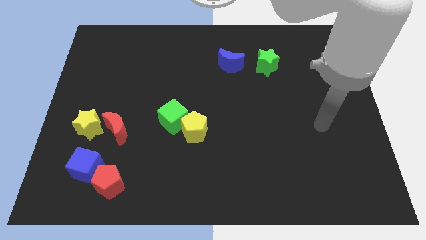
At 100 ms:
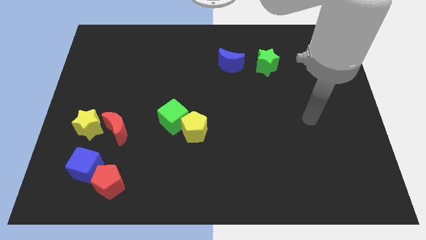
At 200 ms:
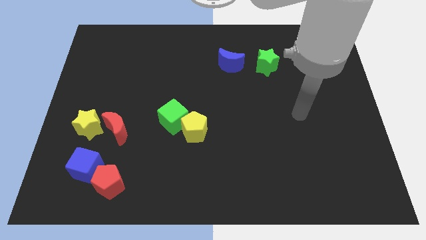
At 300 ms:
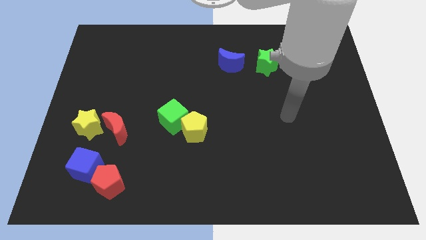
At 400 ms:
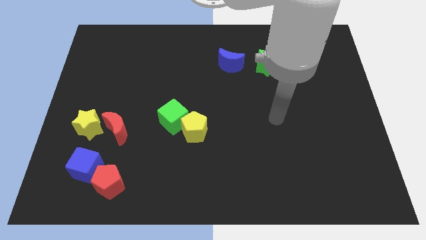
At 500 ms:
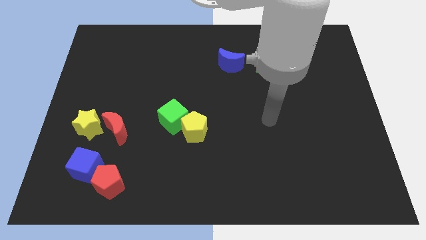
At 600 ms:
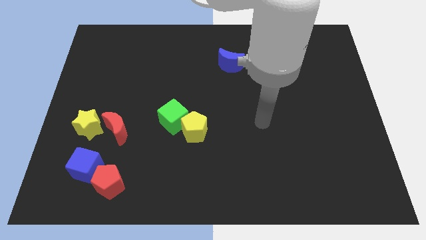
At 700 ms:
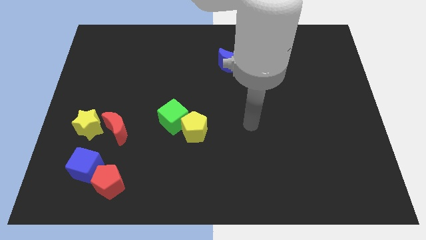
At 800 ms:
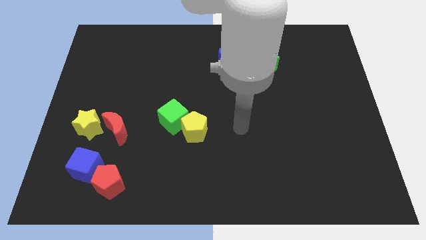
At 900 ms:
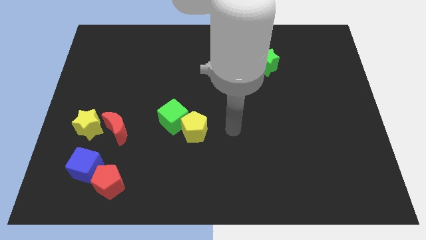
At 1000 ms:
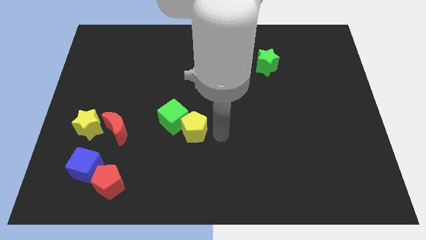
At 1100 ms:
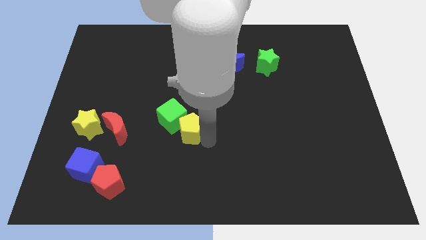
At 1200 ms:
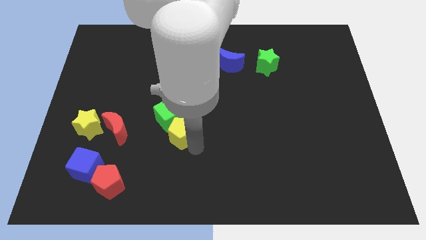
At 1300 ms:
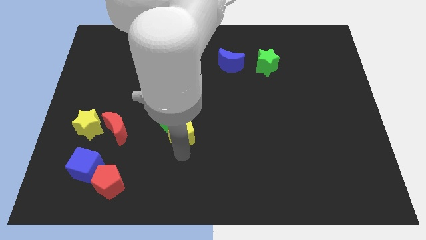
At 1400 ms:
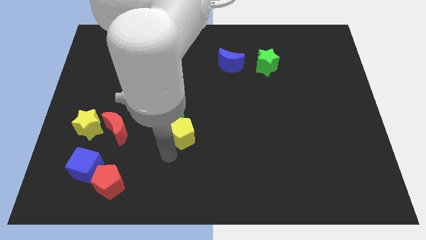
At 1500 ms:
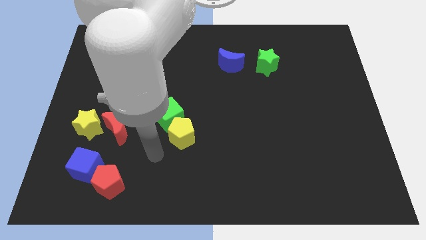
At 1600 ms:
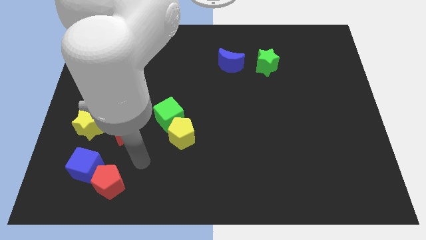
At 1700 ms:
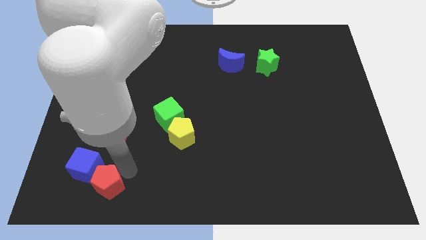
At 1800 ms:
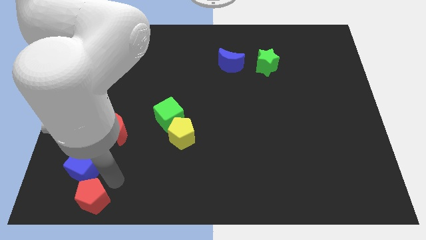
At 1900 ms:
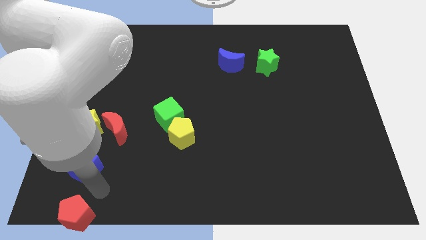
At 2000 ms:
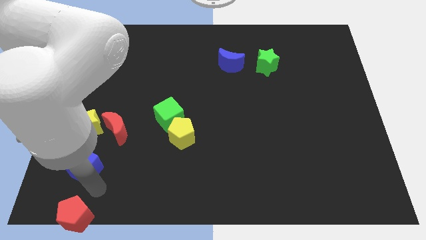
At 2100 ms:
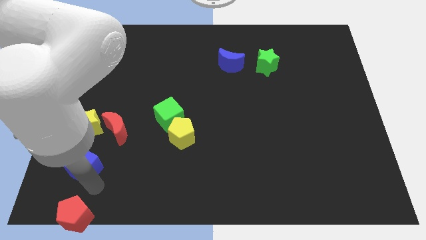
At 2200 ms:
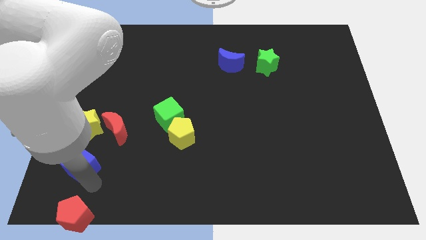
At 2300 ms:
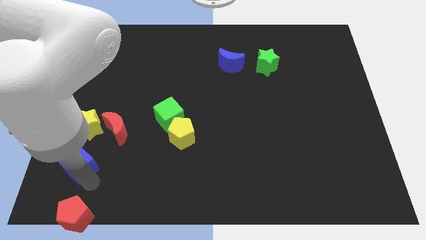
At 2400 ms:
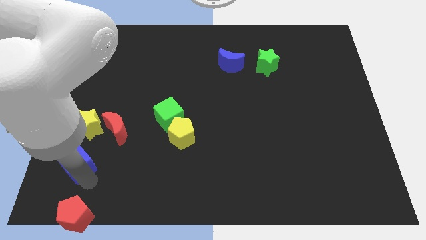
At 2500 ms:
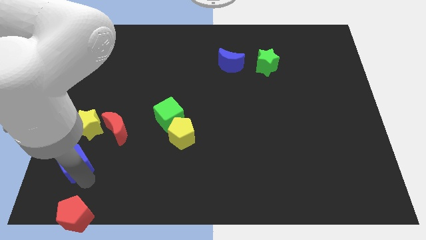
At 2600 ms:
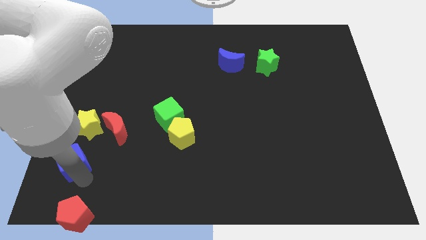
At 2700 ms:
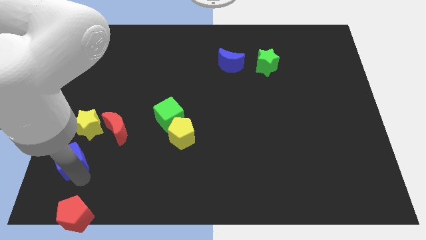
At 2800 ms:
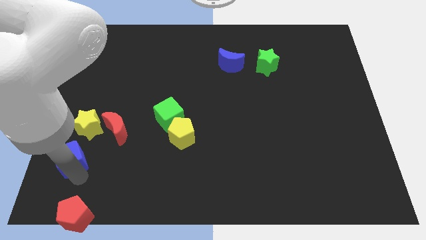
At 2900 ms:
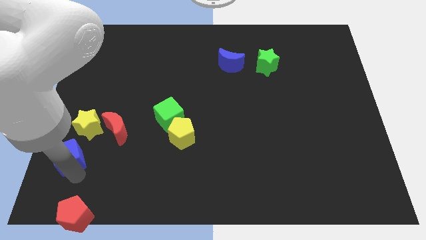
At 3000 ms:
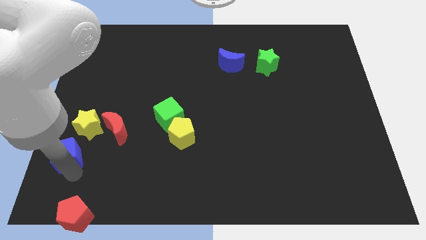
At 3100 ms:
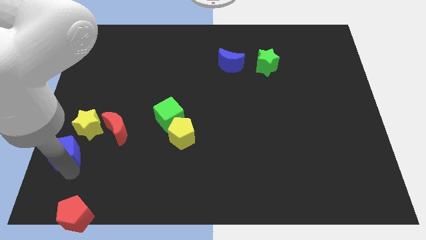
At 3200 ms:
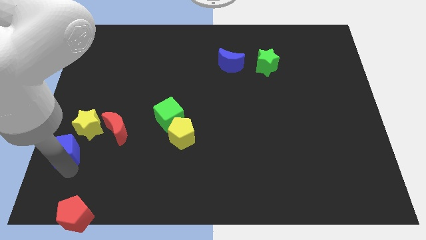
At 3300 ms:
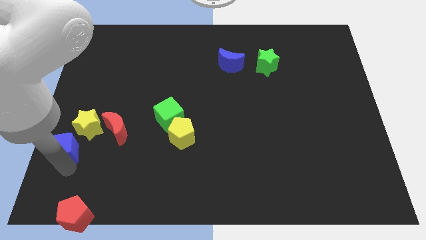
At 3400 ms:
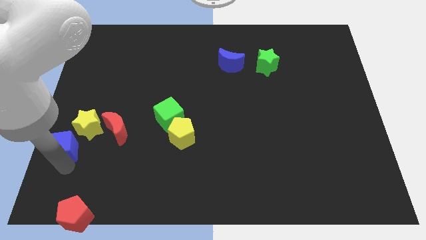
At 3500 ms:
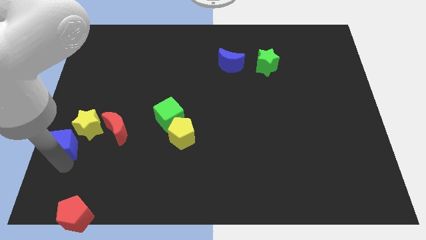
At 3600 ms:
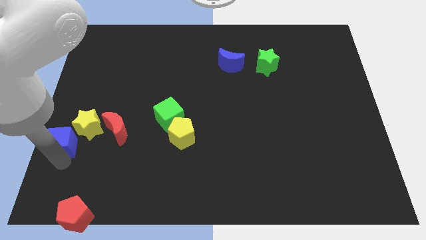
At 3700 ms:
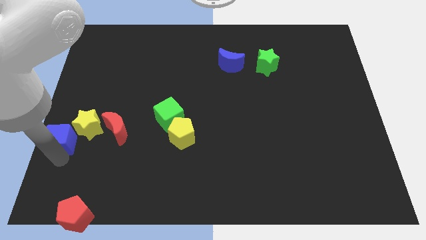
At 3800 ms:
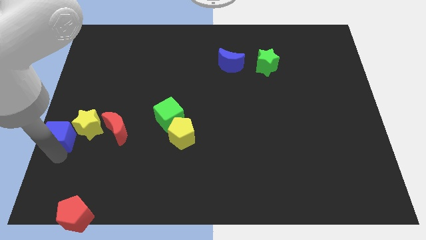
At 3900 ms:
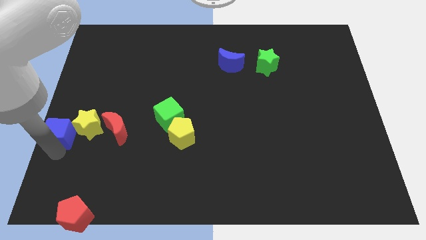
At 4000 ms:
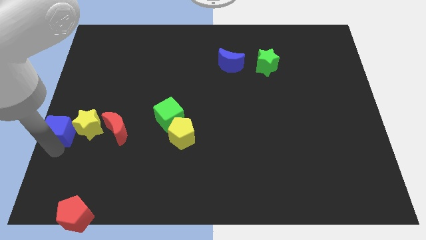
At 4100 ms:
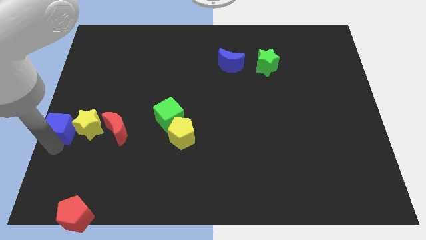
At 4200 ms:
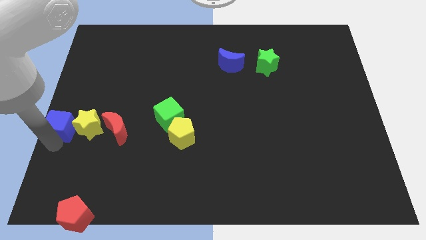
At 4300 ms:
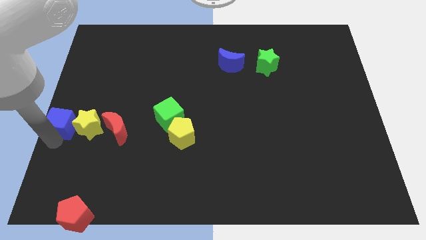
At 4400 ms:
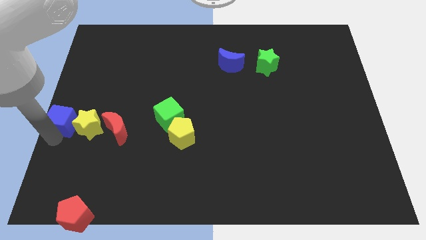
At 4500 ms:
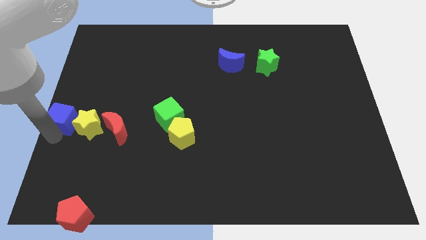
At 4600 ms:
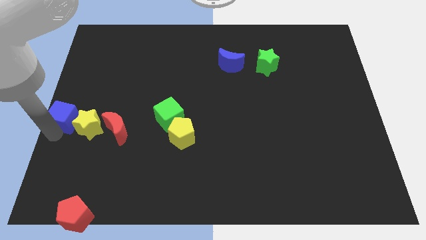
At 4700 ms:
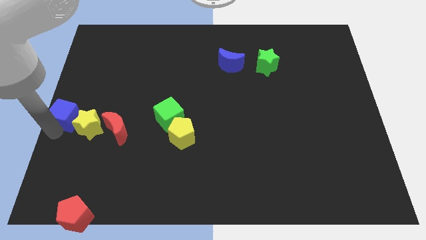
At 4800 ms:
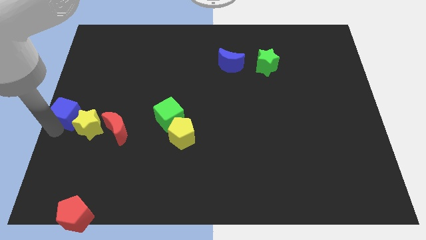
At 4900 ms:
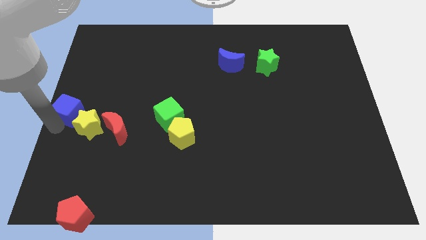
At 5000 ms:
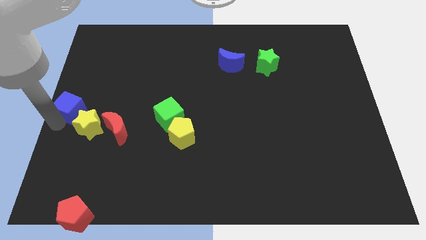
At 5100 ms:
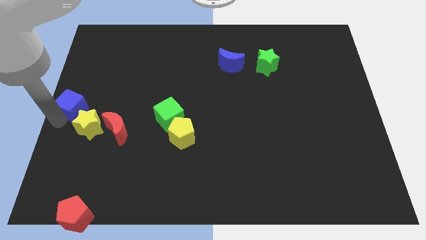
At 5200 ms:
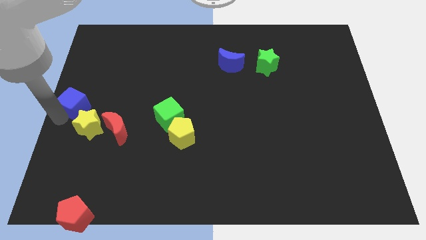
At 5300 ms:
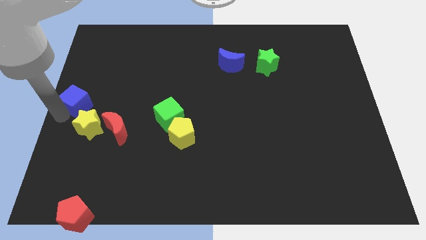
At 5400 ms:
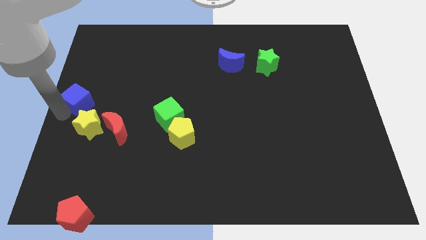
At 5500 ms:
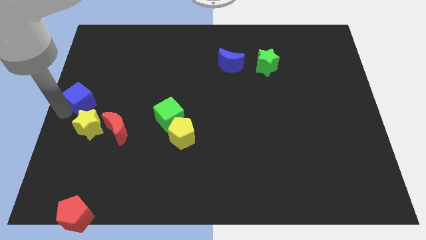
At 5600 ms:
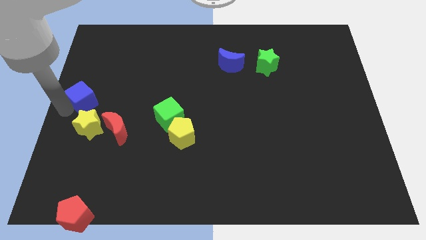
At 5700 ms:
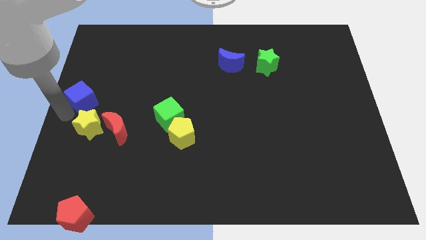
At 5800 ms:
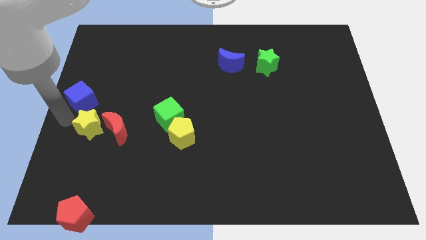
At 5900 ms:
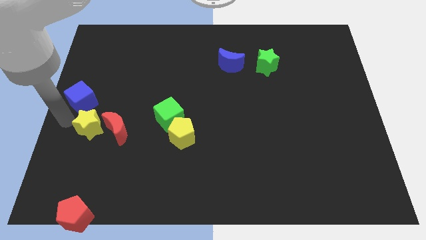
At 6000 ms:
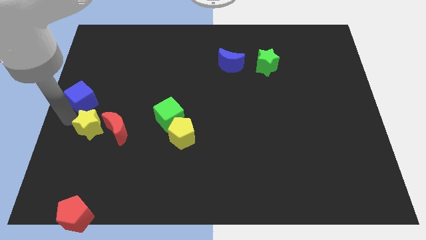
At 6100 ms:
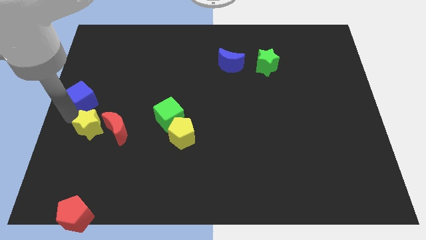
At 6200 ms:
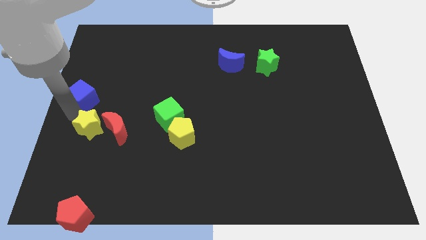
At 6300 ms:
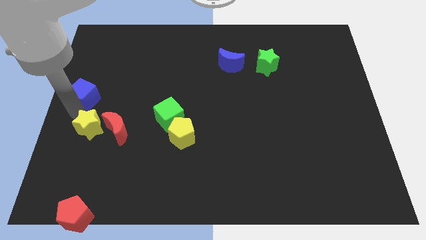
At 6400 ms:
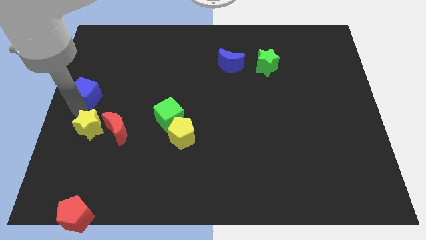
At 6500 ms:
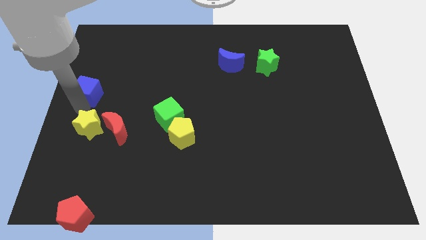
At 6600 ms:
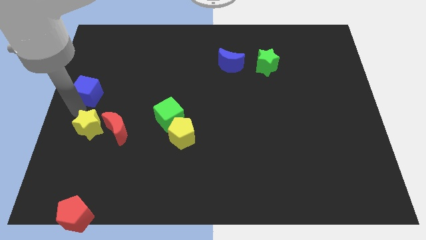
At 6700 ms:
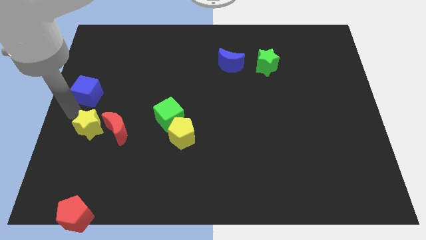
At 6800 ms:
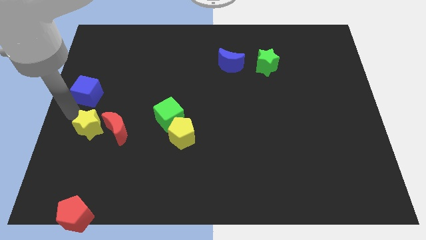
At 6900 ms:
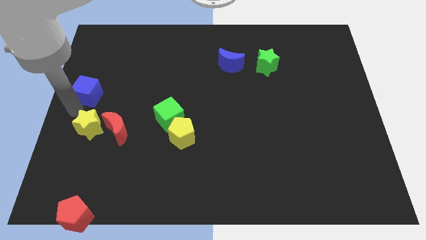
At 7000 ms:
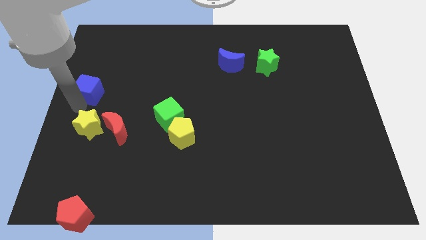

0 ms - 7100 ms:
push the blue cube upwards

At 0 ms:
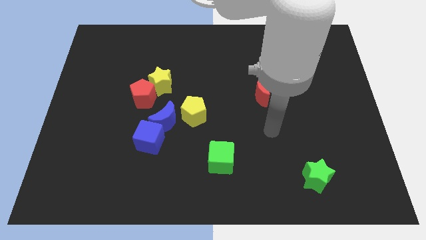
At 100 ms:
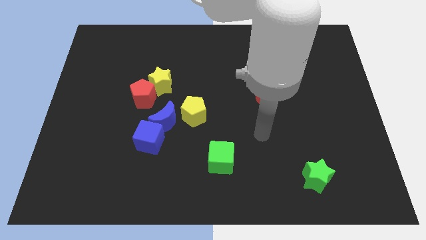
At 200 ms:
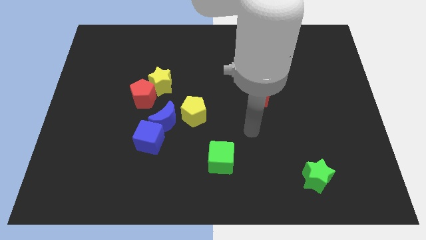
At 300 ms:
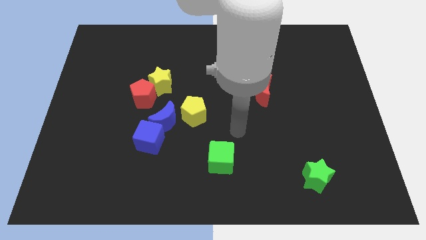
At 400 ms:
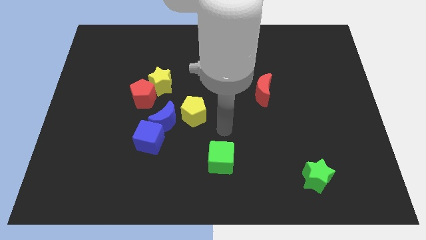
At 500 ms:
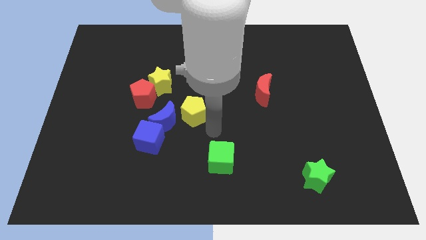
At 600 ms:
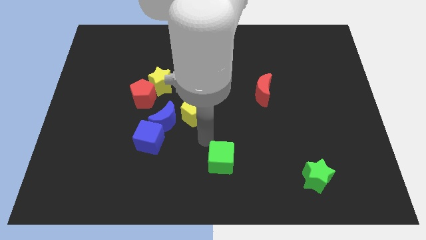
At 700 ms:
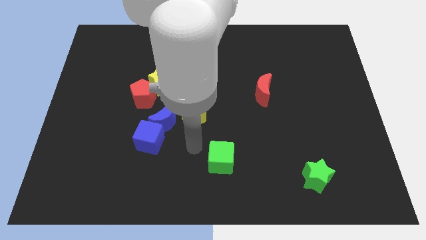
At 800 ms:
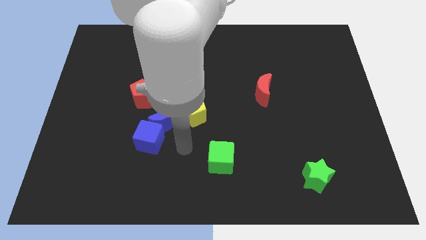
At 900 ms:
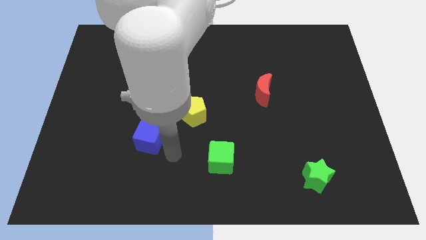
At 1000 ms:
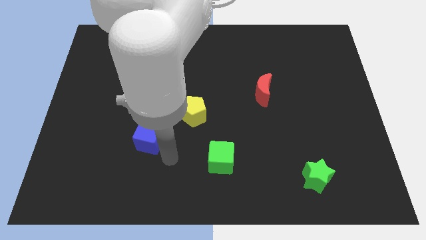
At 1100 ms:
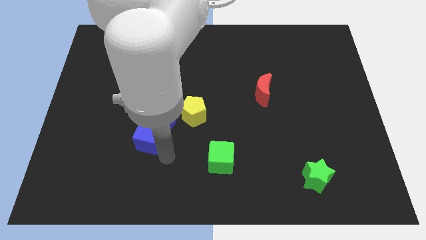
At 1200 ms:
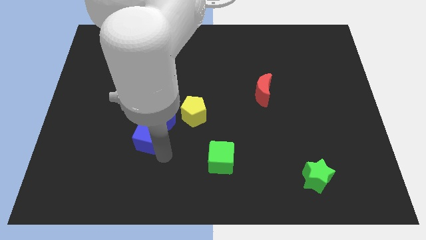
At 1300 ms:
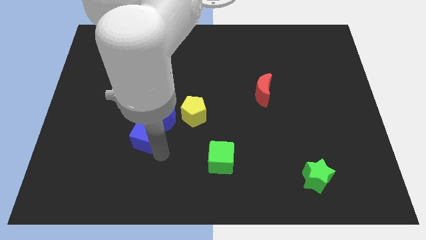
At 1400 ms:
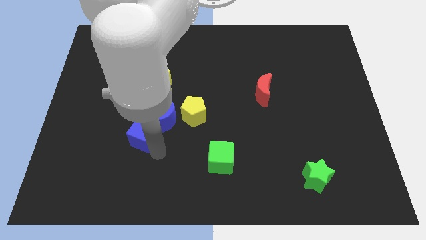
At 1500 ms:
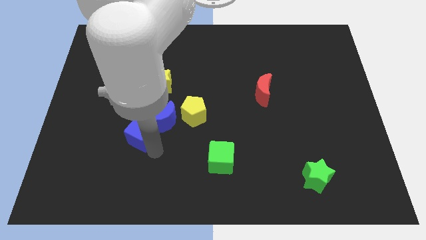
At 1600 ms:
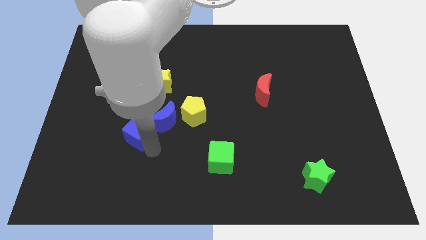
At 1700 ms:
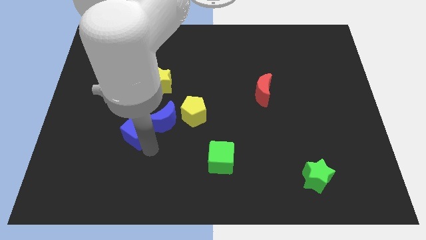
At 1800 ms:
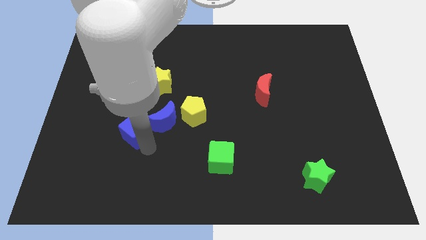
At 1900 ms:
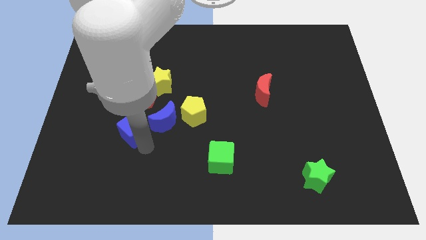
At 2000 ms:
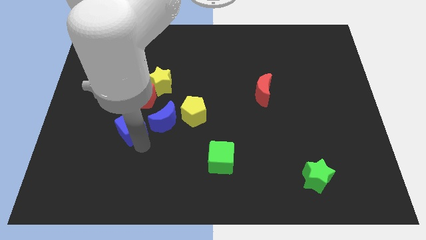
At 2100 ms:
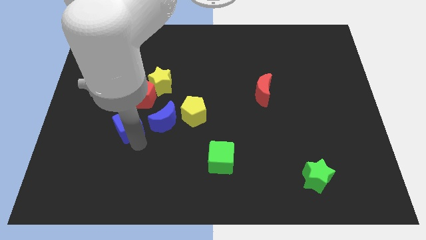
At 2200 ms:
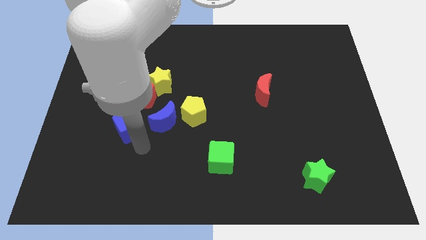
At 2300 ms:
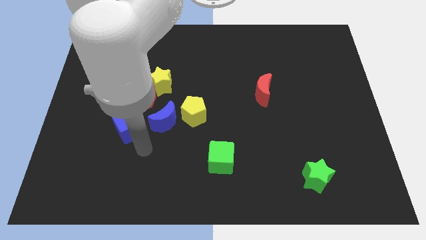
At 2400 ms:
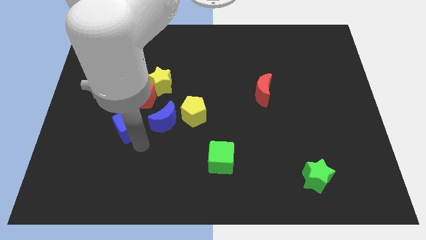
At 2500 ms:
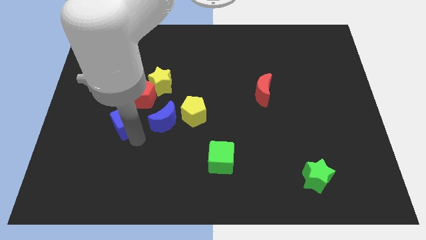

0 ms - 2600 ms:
move the blue cube slightly diagonally upwards and to the left
